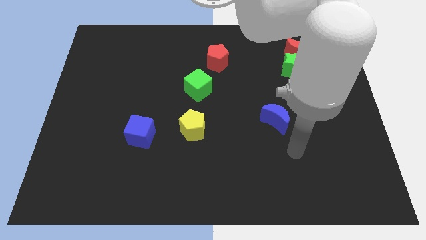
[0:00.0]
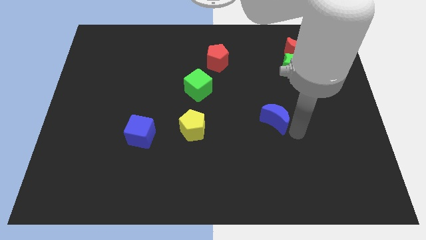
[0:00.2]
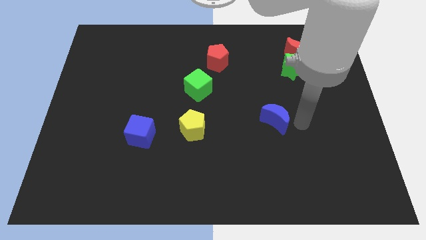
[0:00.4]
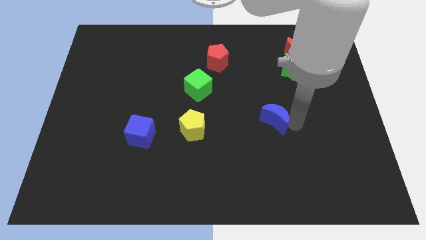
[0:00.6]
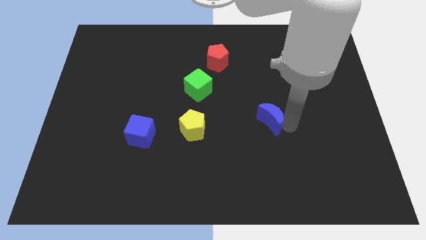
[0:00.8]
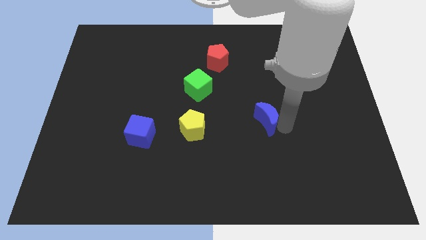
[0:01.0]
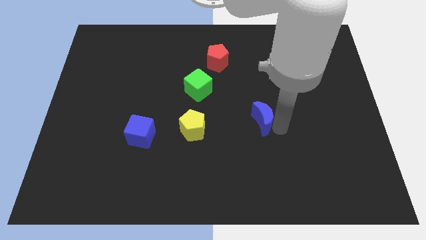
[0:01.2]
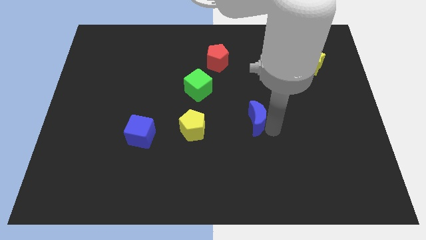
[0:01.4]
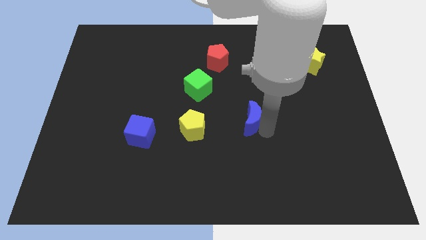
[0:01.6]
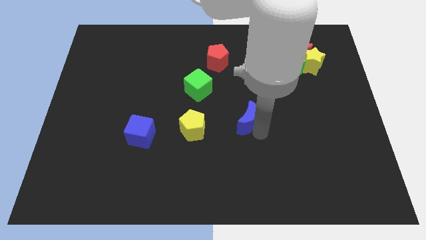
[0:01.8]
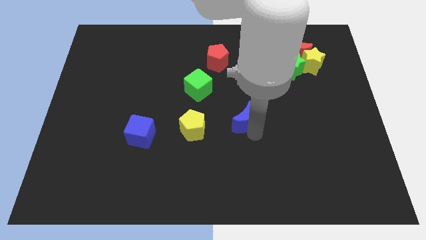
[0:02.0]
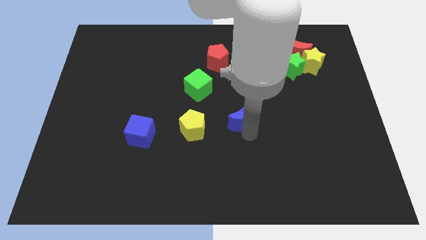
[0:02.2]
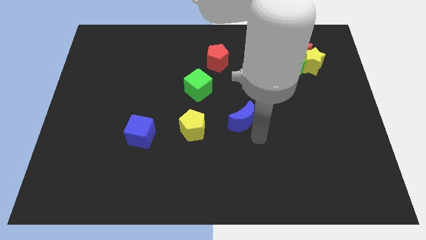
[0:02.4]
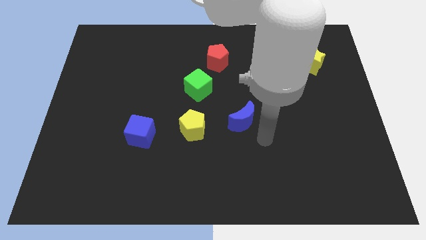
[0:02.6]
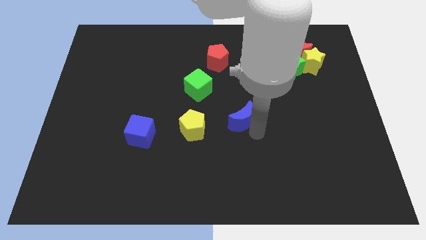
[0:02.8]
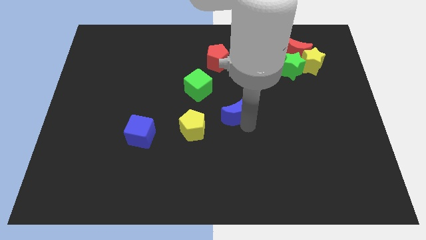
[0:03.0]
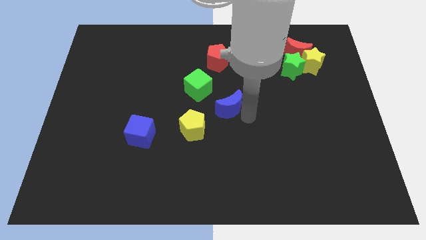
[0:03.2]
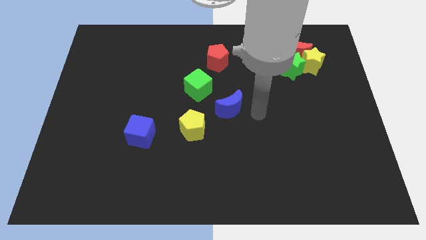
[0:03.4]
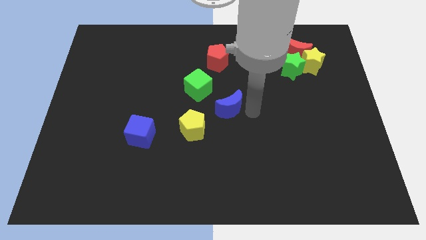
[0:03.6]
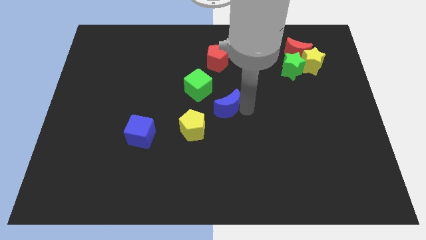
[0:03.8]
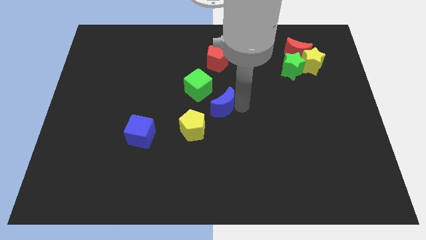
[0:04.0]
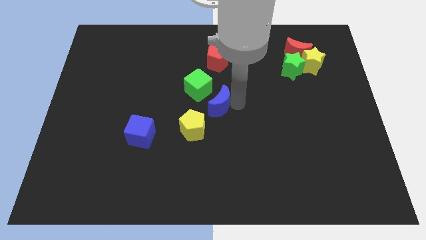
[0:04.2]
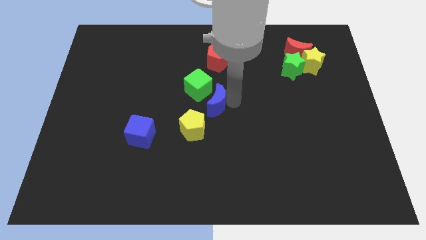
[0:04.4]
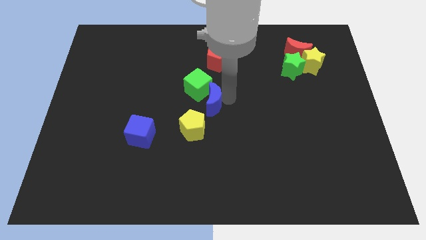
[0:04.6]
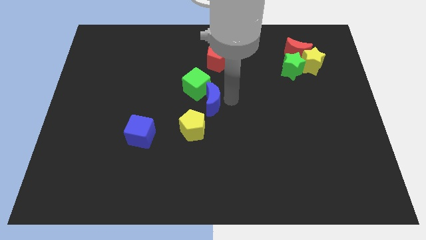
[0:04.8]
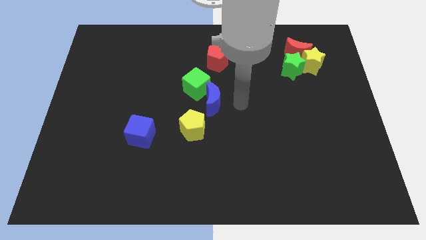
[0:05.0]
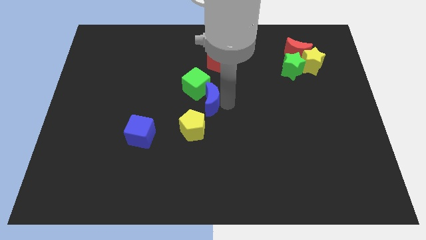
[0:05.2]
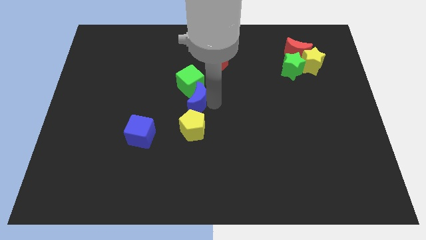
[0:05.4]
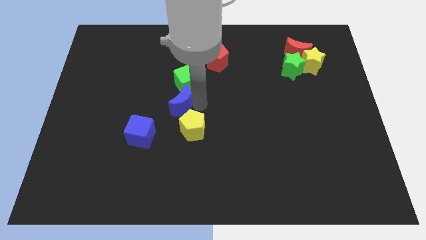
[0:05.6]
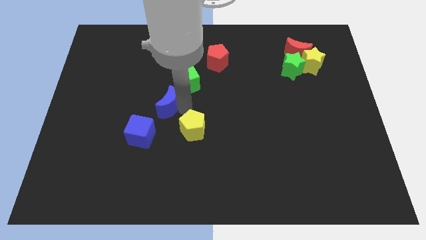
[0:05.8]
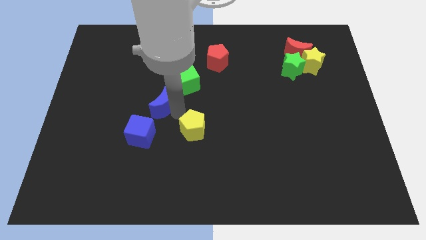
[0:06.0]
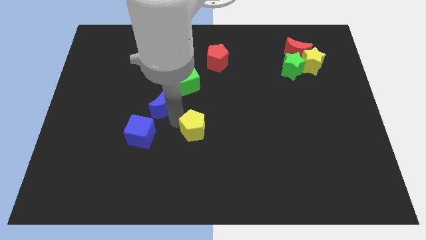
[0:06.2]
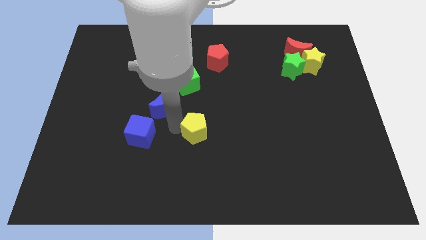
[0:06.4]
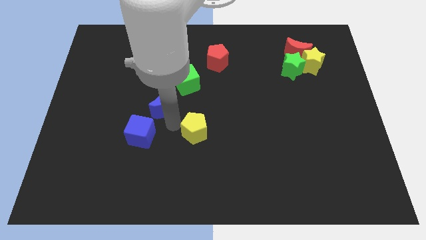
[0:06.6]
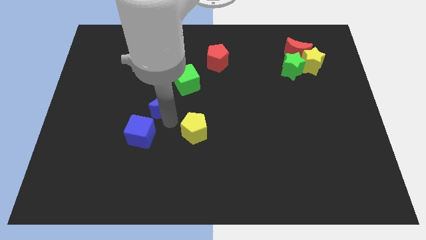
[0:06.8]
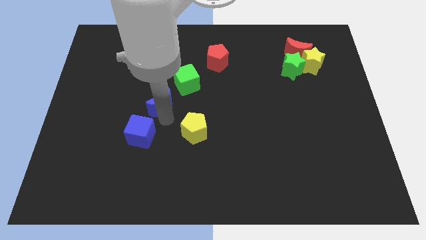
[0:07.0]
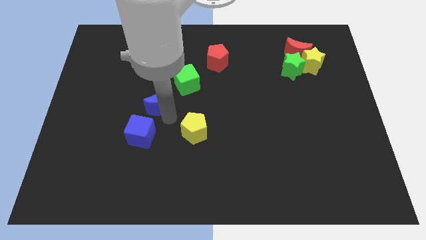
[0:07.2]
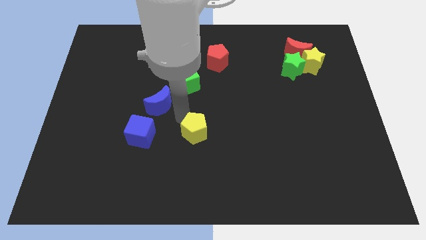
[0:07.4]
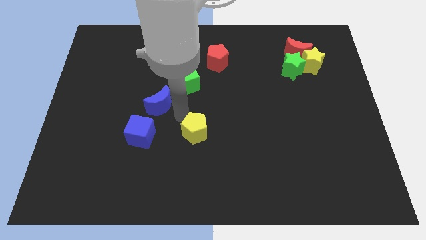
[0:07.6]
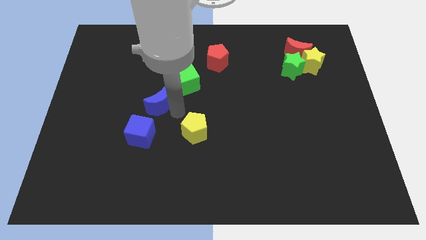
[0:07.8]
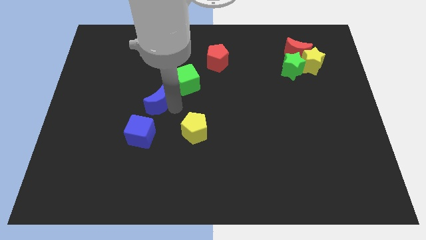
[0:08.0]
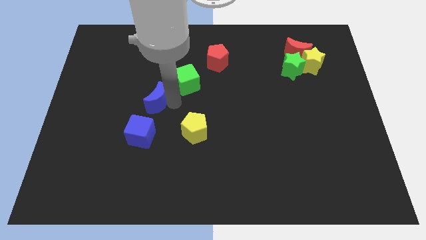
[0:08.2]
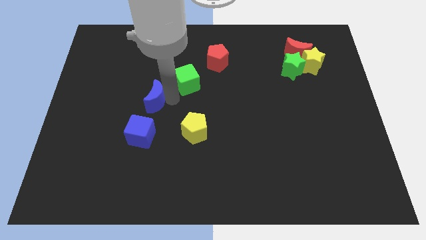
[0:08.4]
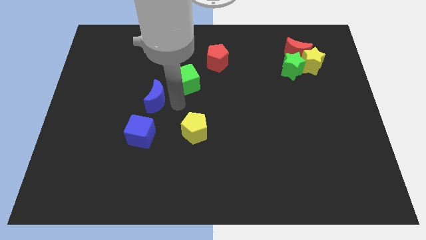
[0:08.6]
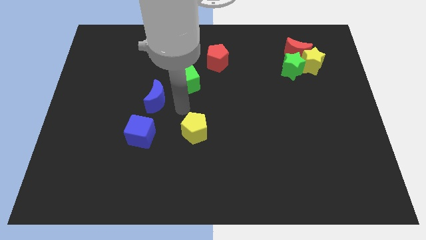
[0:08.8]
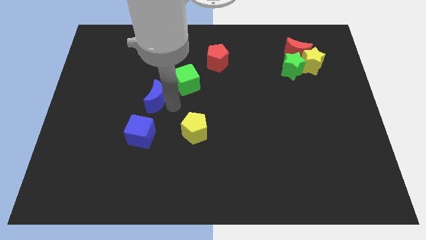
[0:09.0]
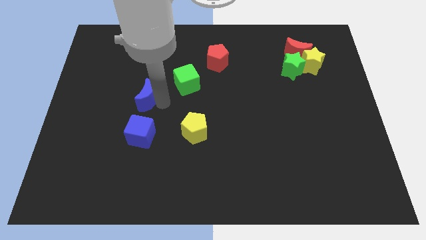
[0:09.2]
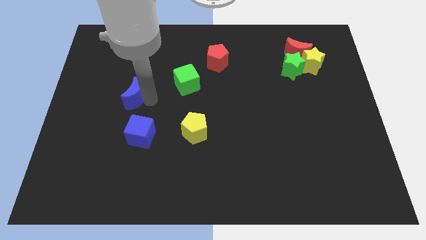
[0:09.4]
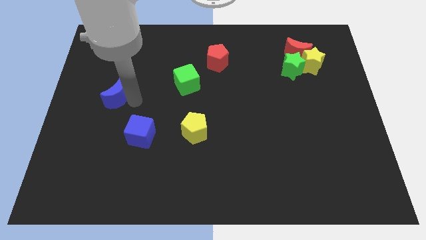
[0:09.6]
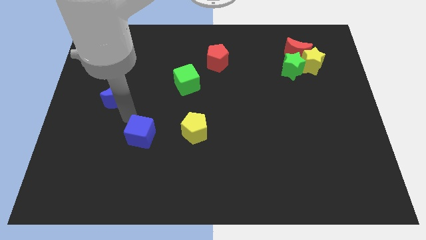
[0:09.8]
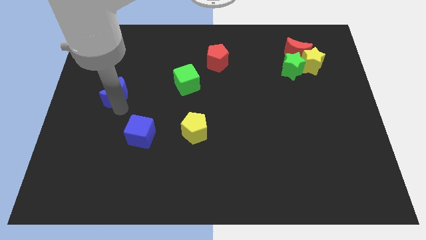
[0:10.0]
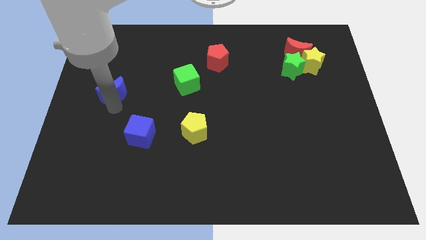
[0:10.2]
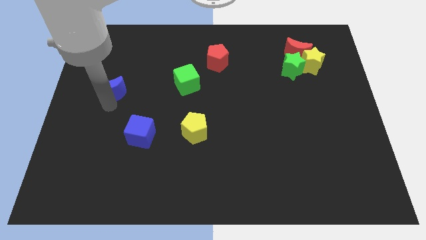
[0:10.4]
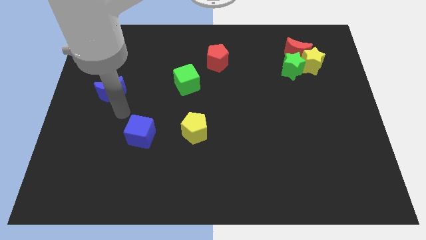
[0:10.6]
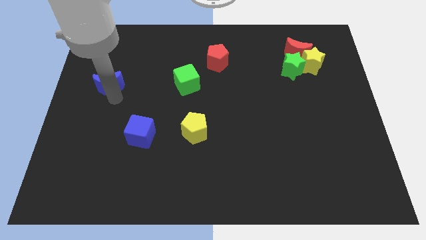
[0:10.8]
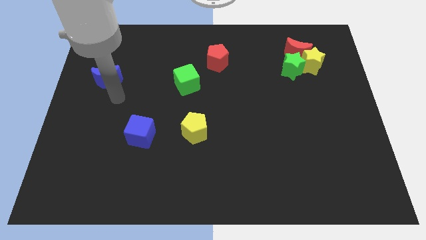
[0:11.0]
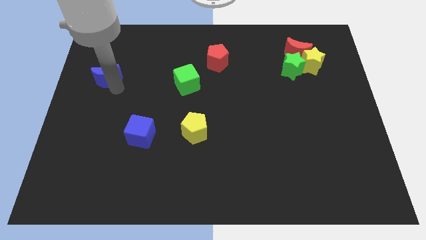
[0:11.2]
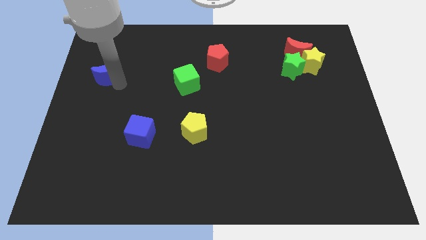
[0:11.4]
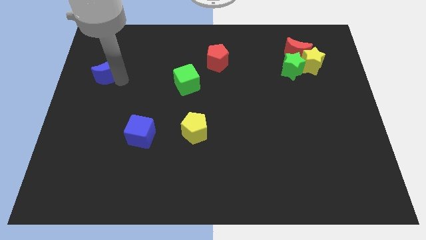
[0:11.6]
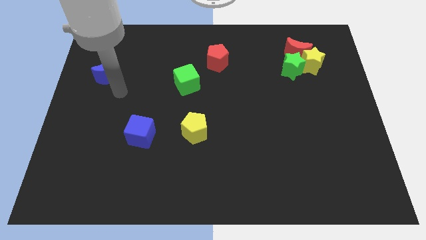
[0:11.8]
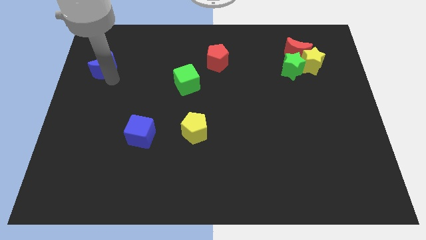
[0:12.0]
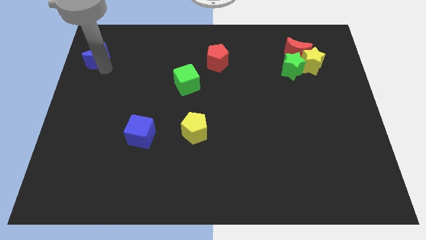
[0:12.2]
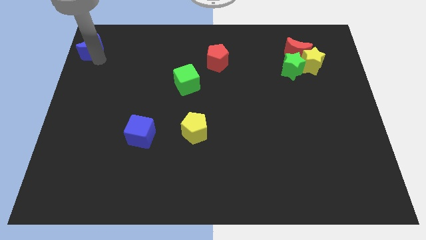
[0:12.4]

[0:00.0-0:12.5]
put the blue moon to the upper left corner
